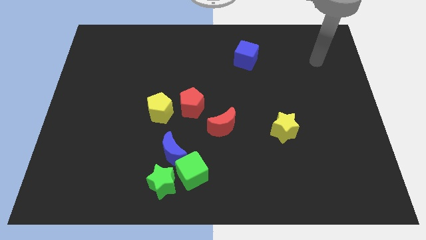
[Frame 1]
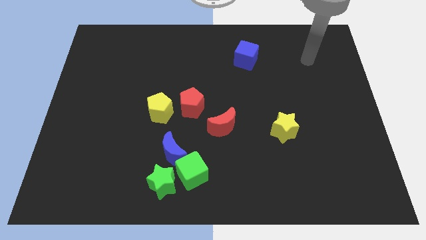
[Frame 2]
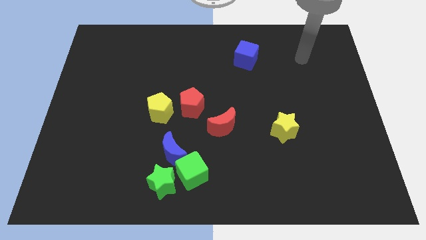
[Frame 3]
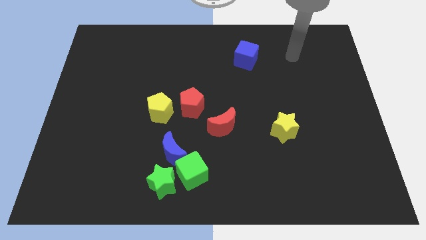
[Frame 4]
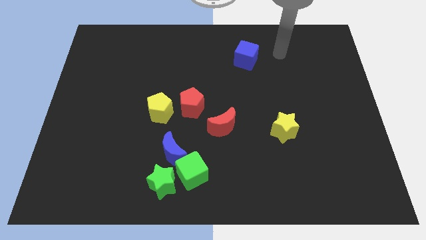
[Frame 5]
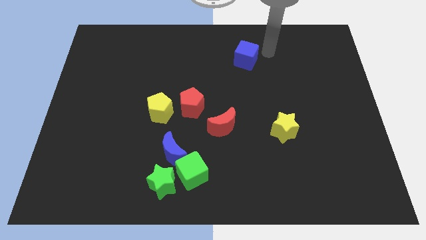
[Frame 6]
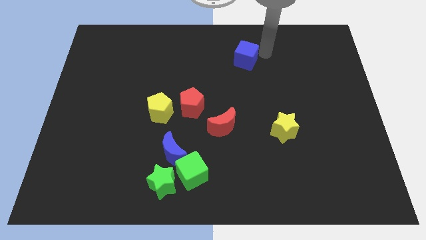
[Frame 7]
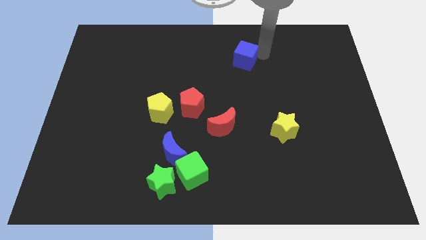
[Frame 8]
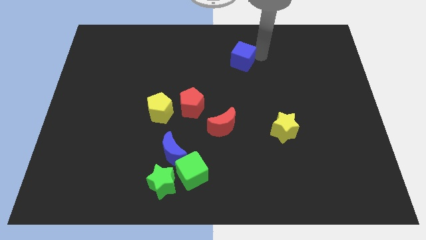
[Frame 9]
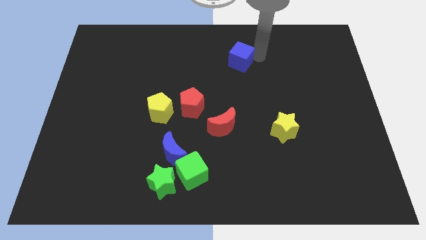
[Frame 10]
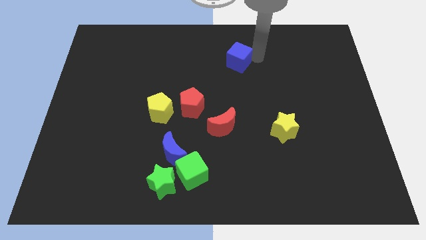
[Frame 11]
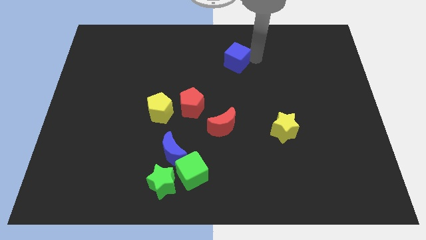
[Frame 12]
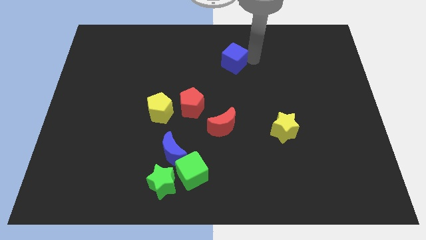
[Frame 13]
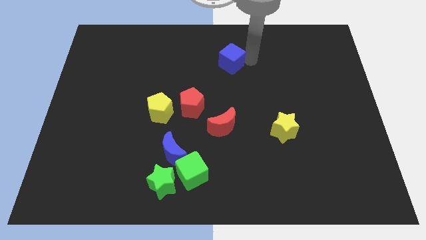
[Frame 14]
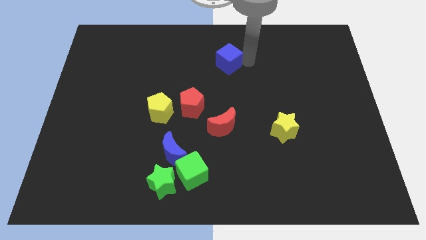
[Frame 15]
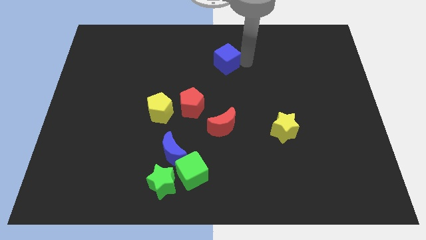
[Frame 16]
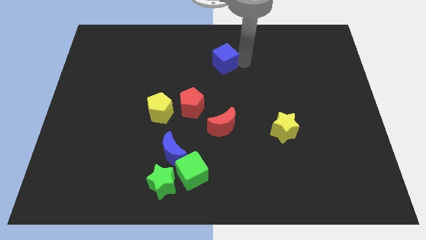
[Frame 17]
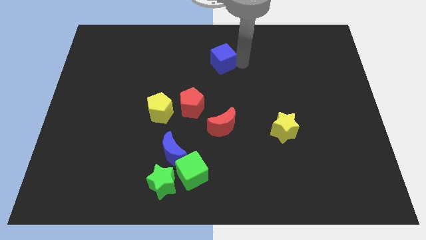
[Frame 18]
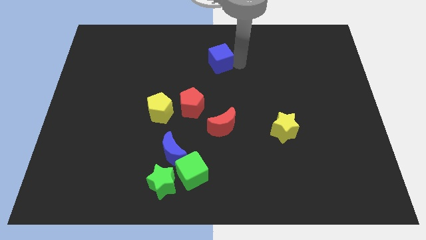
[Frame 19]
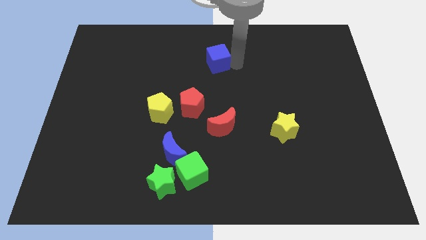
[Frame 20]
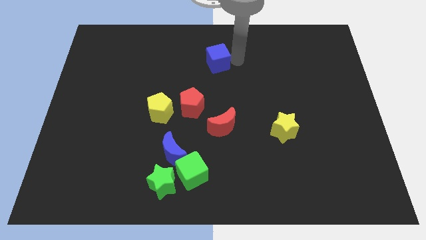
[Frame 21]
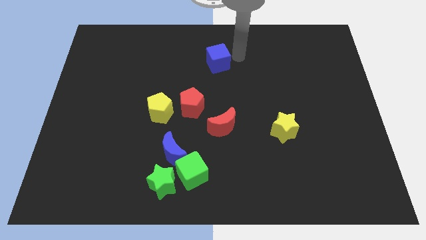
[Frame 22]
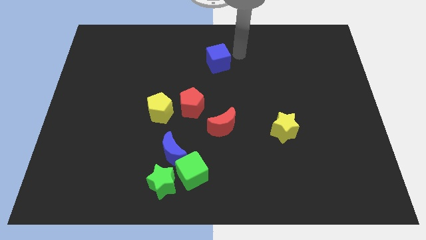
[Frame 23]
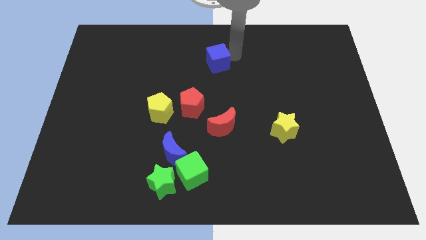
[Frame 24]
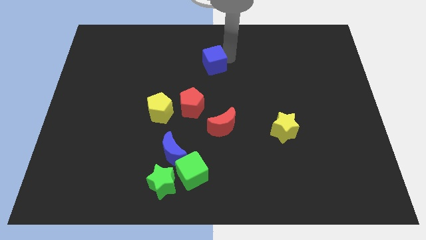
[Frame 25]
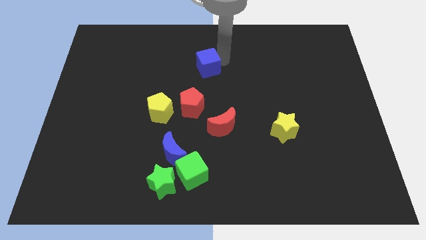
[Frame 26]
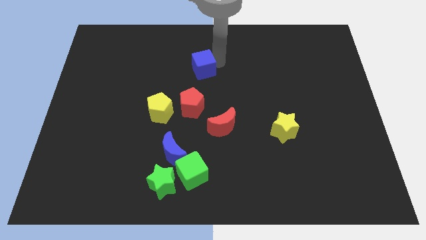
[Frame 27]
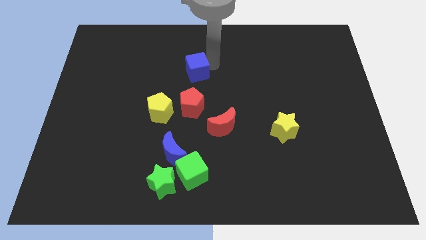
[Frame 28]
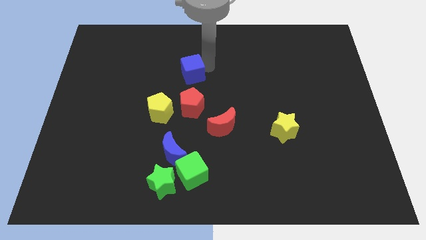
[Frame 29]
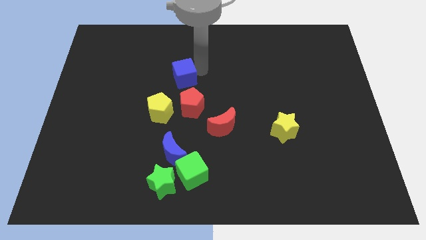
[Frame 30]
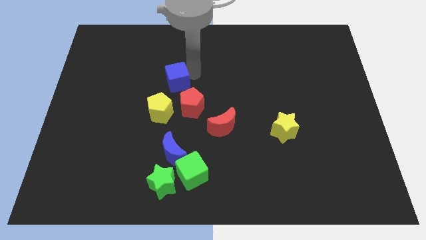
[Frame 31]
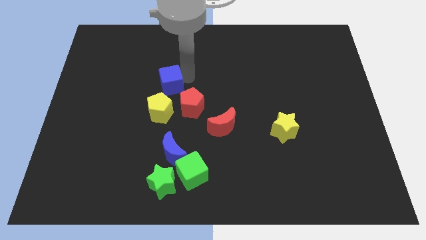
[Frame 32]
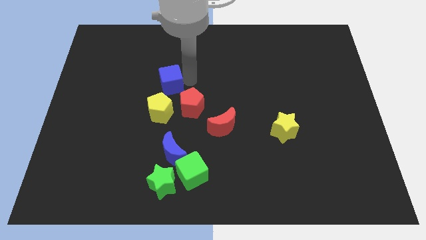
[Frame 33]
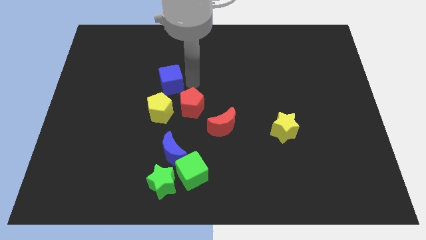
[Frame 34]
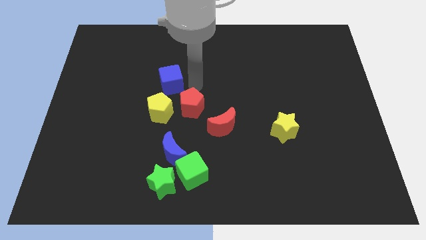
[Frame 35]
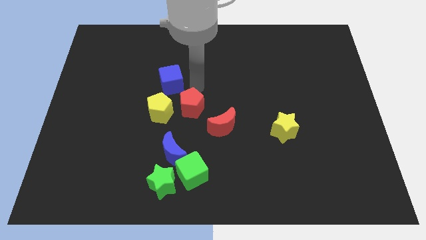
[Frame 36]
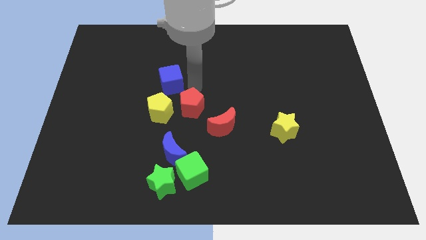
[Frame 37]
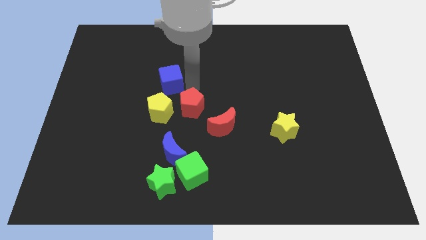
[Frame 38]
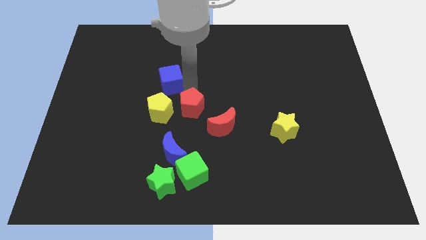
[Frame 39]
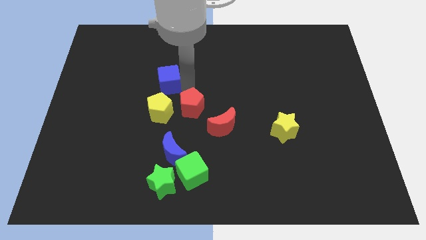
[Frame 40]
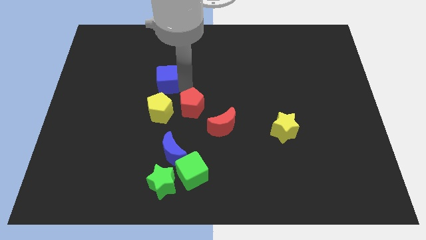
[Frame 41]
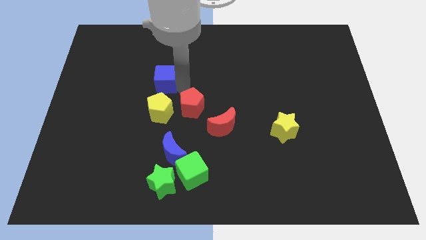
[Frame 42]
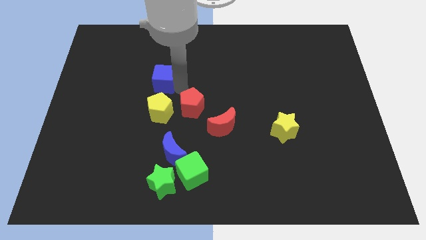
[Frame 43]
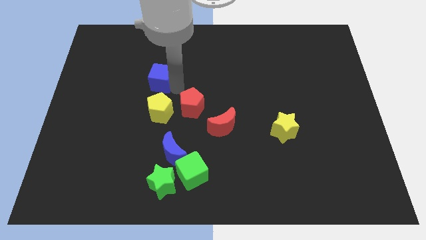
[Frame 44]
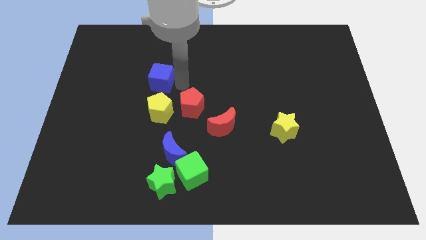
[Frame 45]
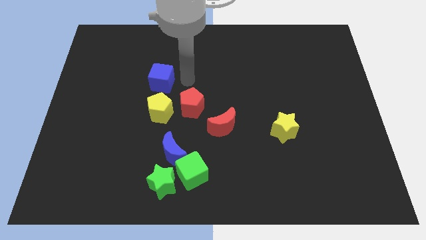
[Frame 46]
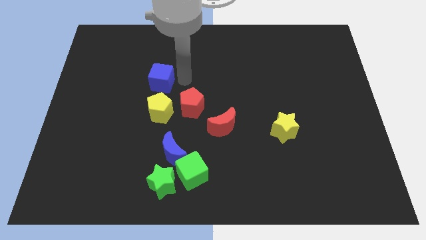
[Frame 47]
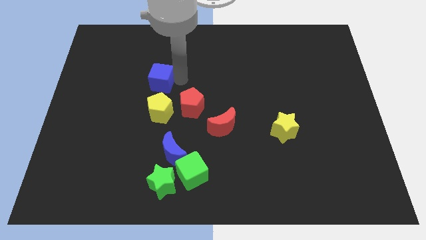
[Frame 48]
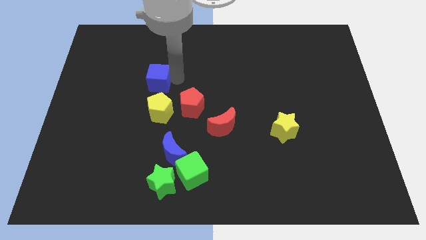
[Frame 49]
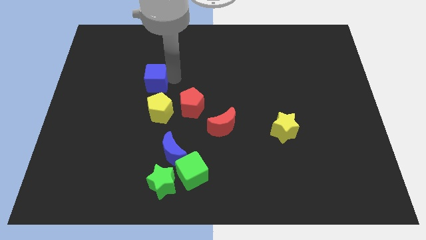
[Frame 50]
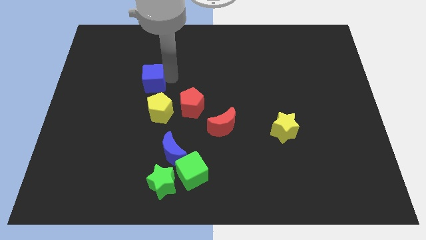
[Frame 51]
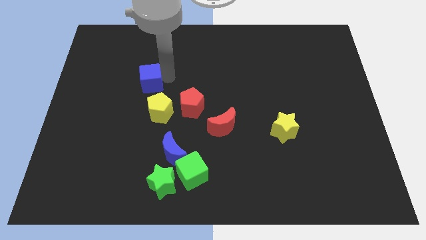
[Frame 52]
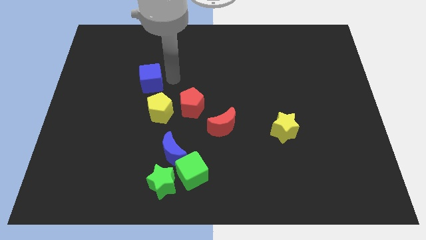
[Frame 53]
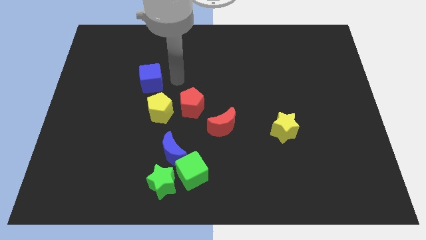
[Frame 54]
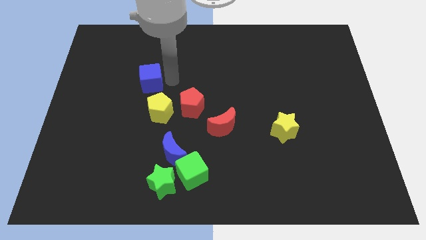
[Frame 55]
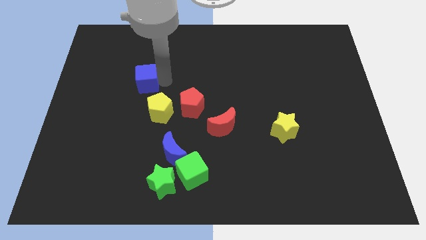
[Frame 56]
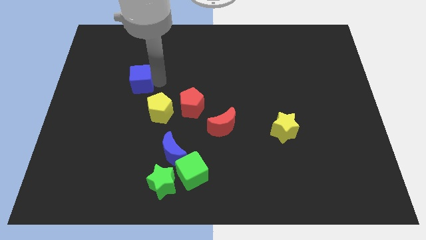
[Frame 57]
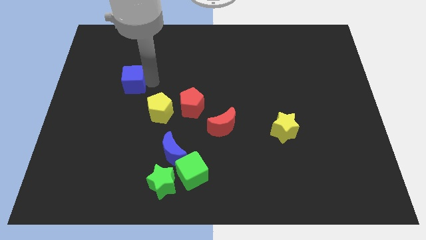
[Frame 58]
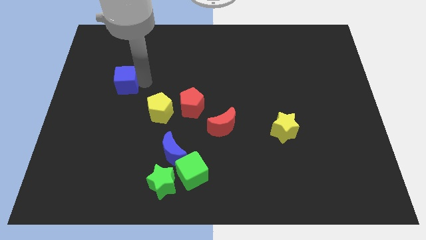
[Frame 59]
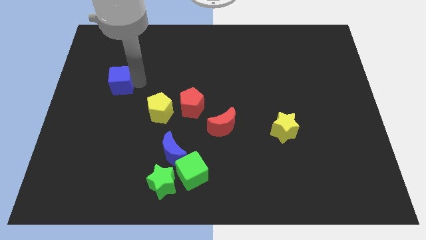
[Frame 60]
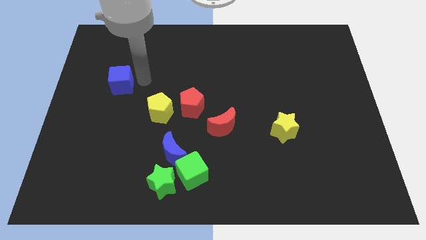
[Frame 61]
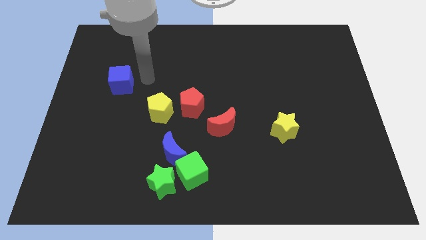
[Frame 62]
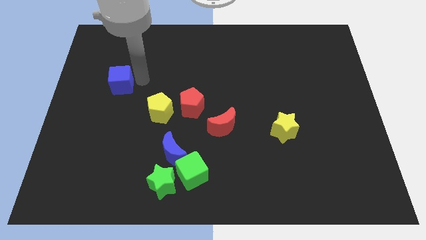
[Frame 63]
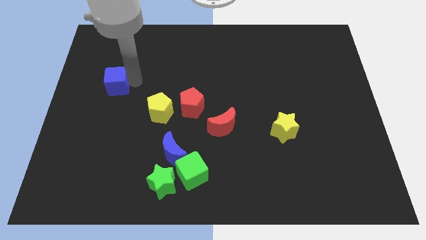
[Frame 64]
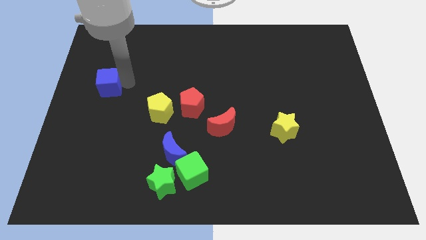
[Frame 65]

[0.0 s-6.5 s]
slide the blue cube to the left side

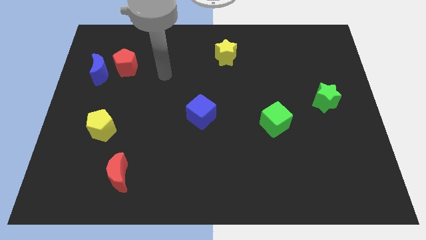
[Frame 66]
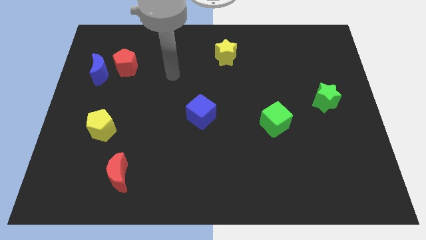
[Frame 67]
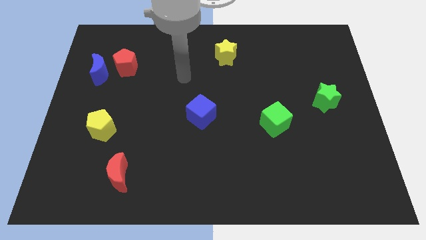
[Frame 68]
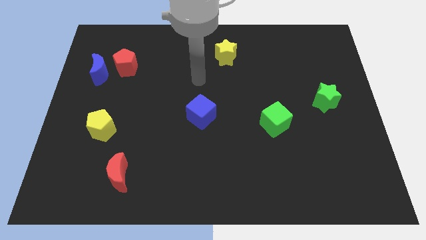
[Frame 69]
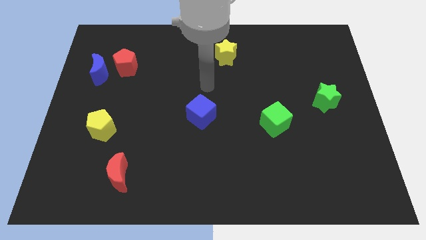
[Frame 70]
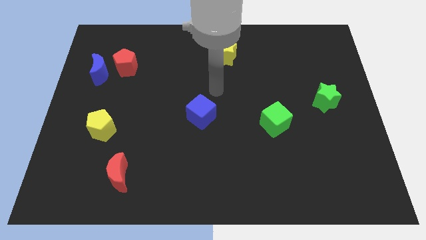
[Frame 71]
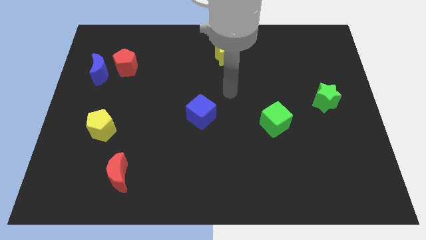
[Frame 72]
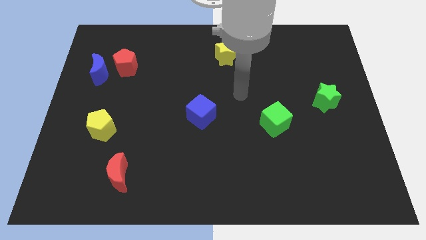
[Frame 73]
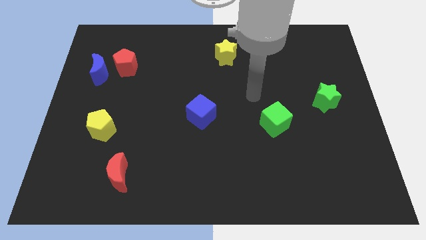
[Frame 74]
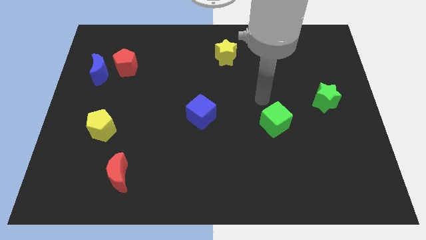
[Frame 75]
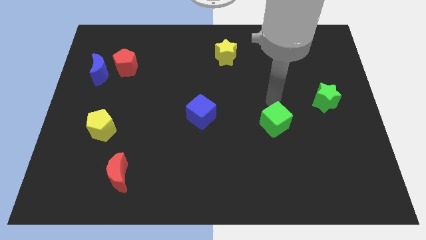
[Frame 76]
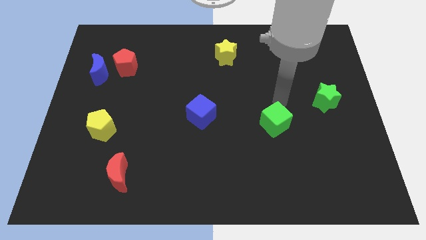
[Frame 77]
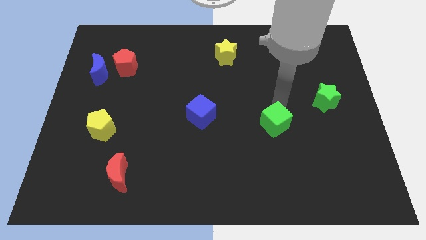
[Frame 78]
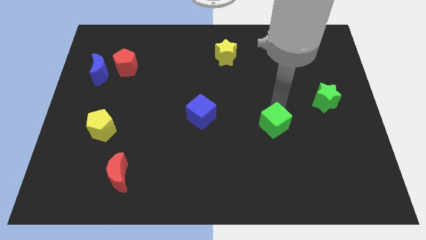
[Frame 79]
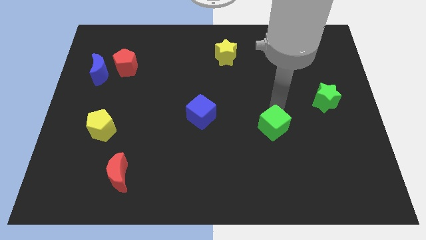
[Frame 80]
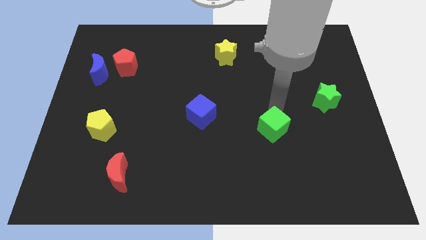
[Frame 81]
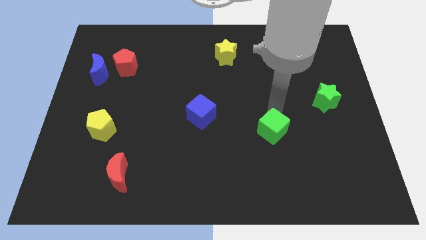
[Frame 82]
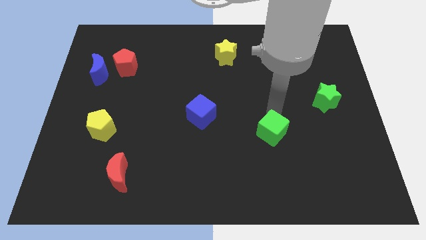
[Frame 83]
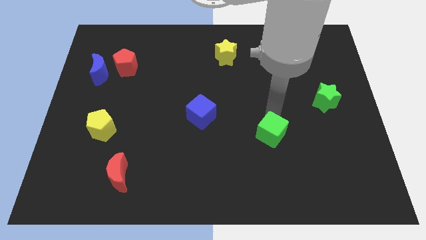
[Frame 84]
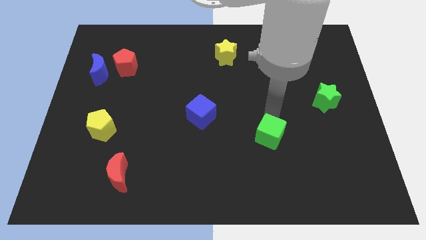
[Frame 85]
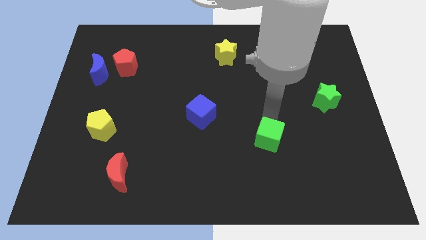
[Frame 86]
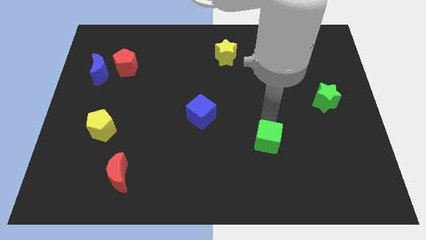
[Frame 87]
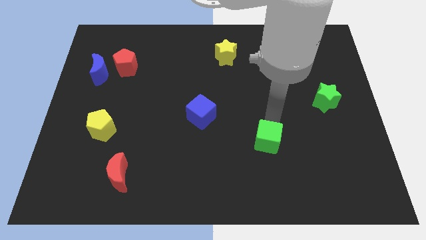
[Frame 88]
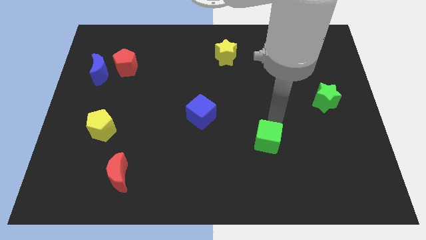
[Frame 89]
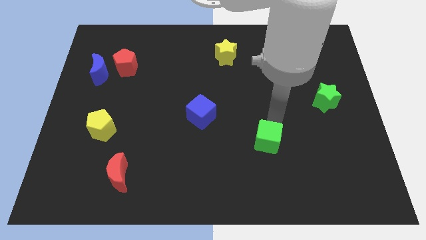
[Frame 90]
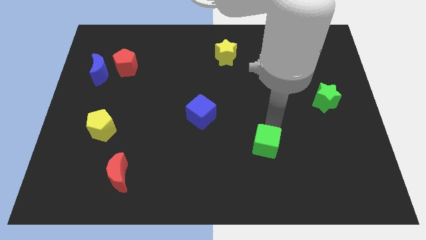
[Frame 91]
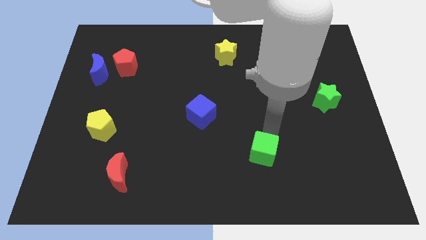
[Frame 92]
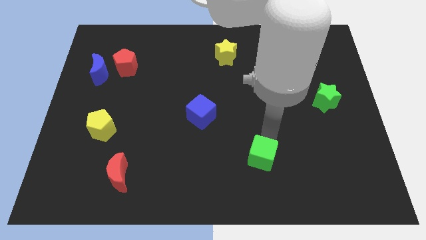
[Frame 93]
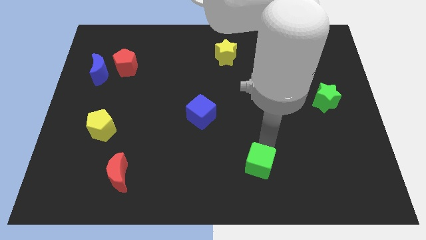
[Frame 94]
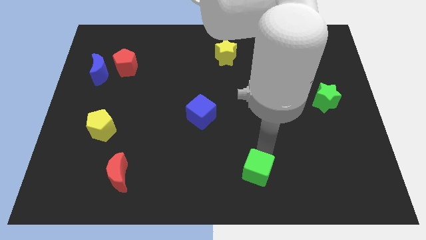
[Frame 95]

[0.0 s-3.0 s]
move the green cube to the bottom
